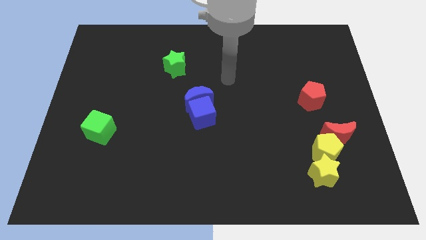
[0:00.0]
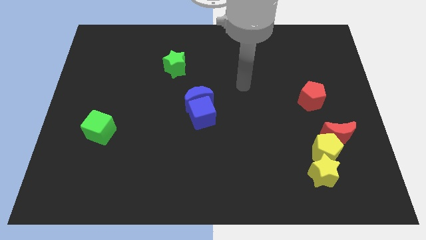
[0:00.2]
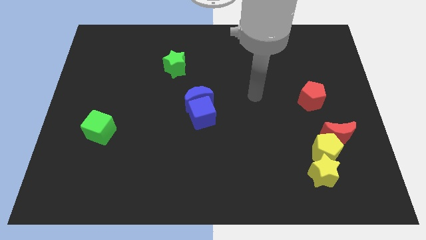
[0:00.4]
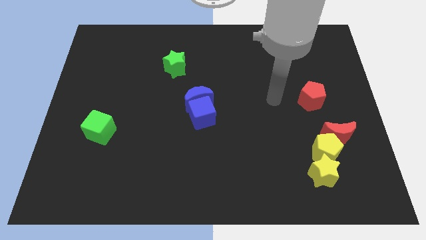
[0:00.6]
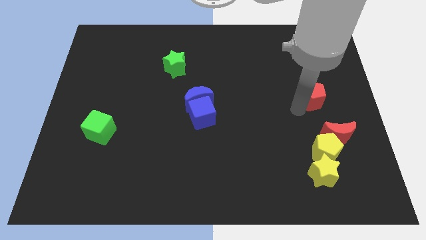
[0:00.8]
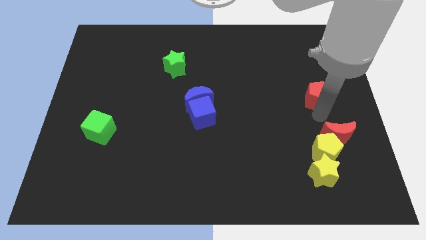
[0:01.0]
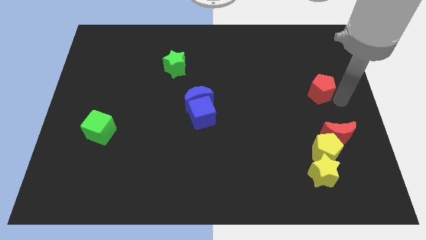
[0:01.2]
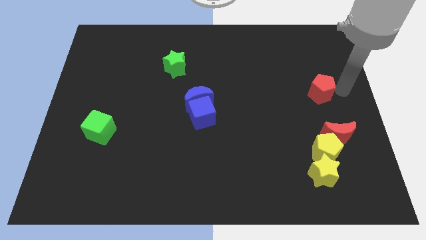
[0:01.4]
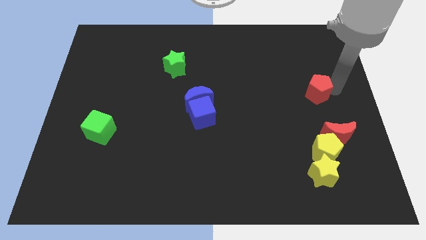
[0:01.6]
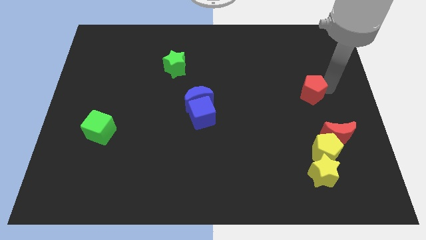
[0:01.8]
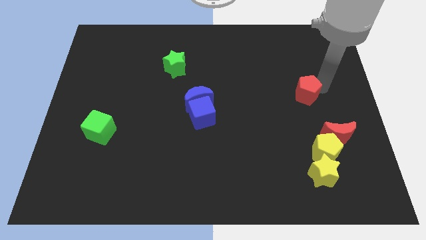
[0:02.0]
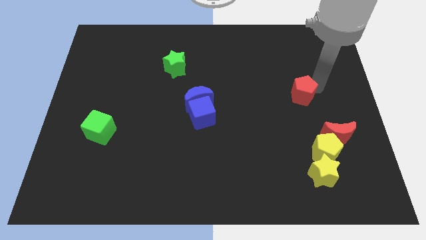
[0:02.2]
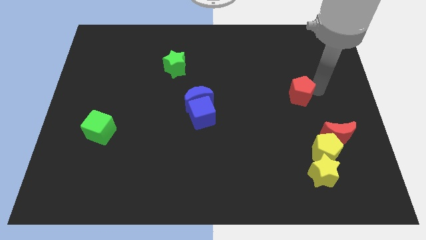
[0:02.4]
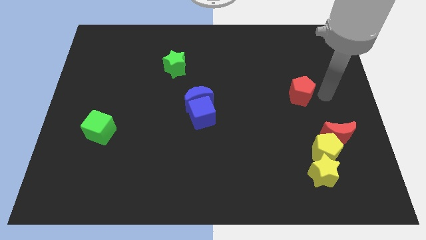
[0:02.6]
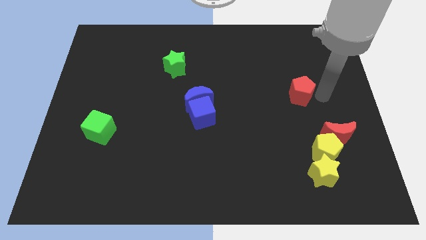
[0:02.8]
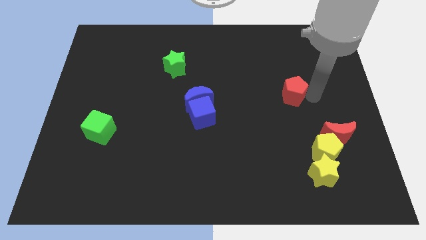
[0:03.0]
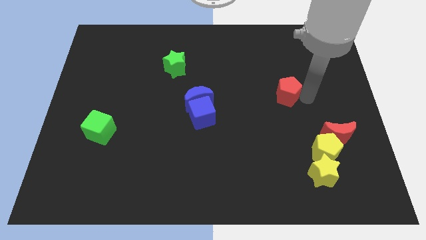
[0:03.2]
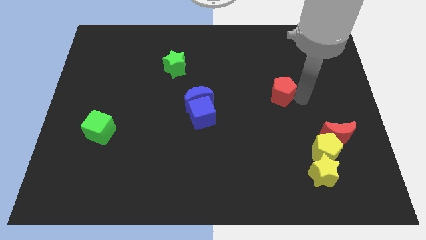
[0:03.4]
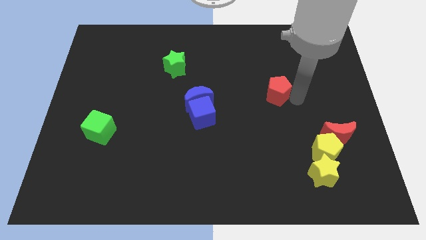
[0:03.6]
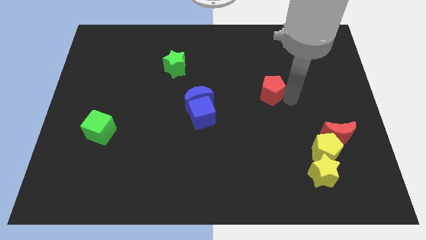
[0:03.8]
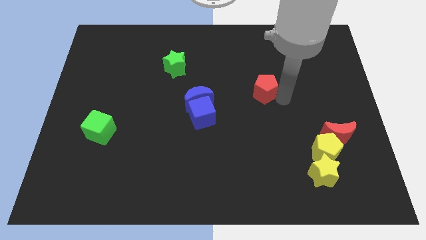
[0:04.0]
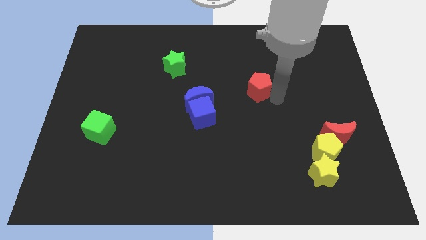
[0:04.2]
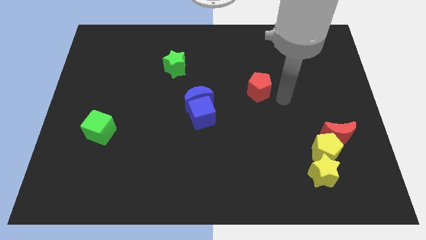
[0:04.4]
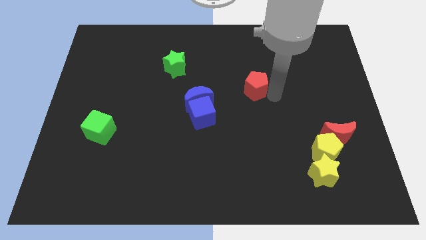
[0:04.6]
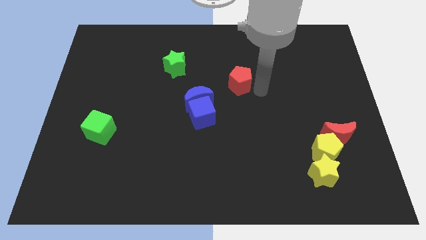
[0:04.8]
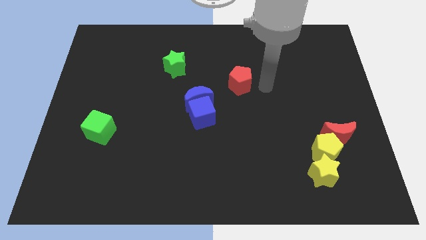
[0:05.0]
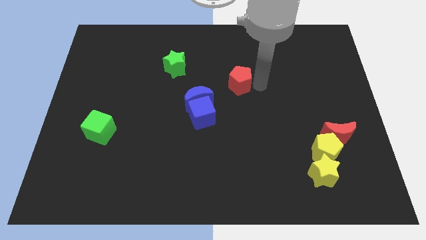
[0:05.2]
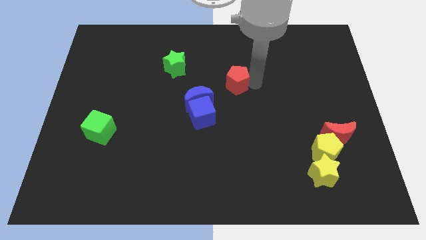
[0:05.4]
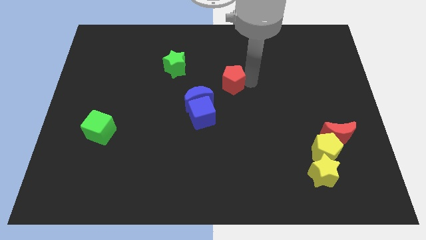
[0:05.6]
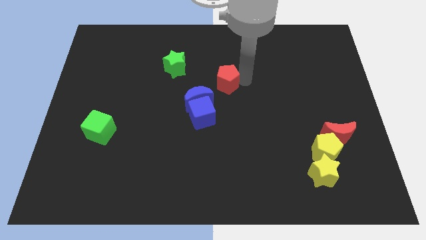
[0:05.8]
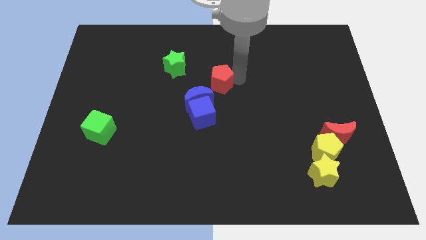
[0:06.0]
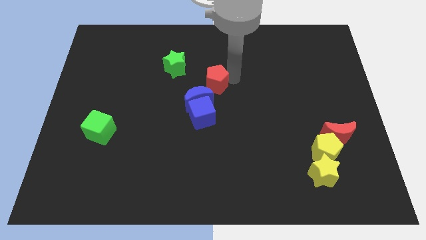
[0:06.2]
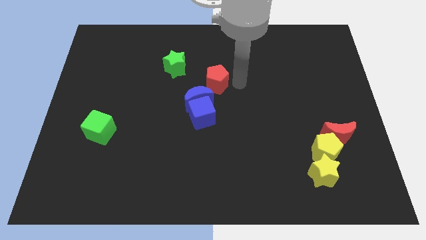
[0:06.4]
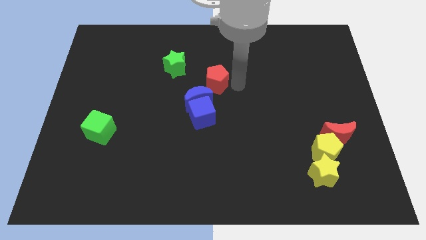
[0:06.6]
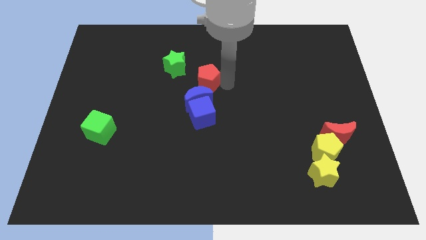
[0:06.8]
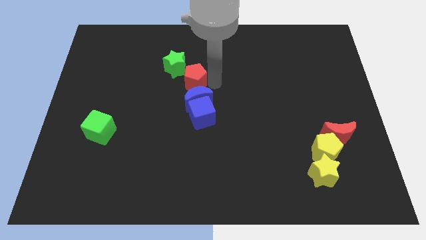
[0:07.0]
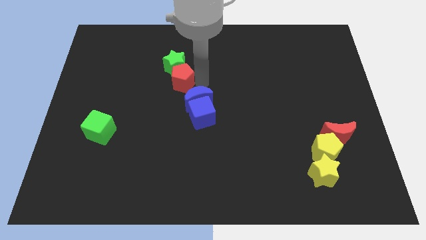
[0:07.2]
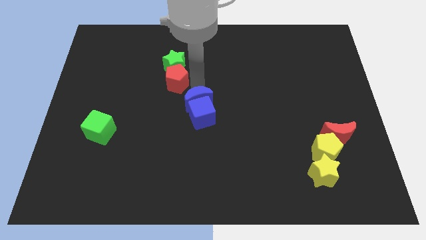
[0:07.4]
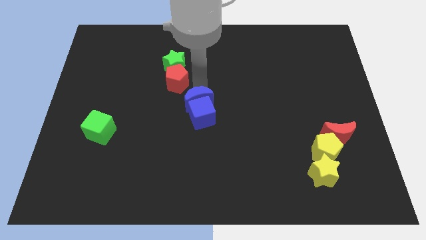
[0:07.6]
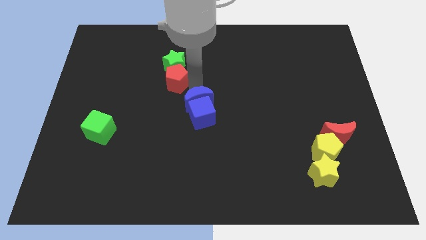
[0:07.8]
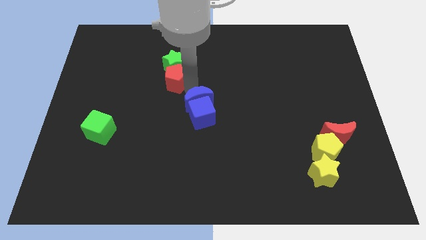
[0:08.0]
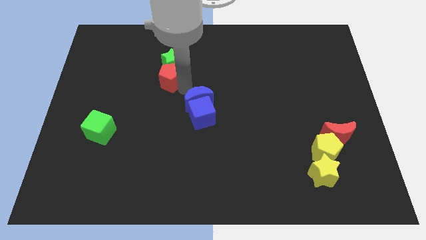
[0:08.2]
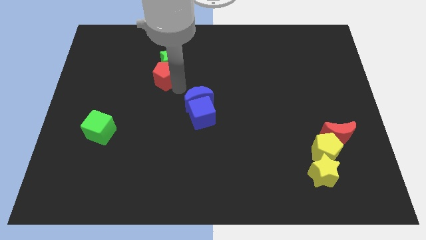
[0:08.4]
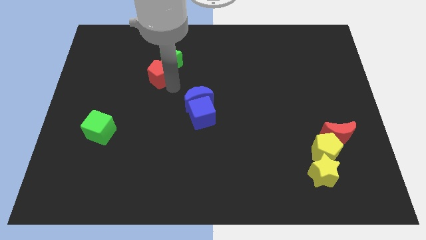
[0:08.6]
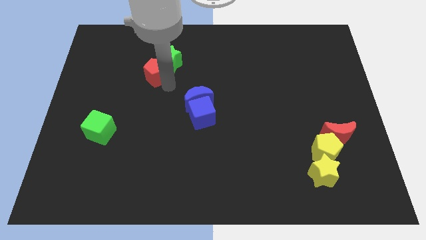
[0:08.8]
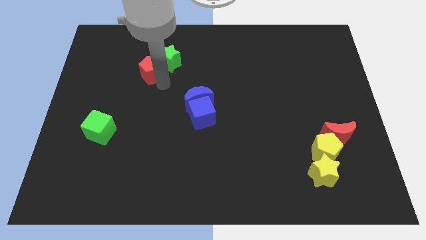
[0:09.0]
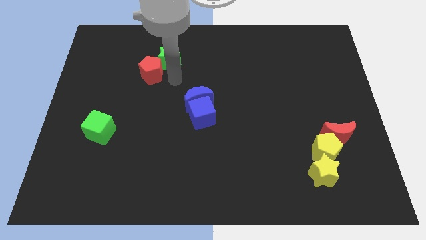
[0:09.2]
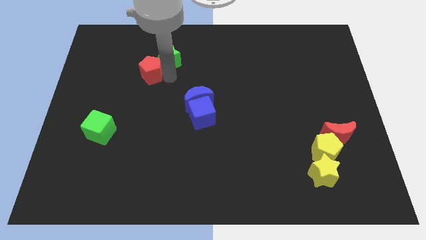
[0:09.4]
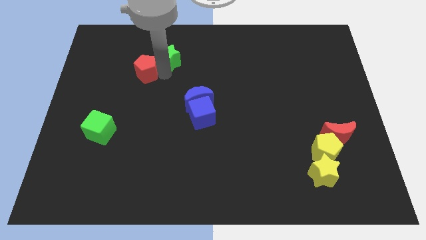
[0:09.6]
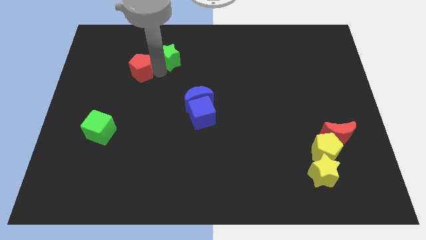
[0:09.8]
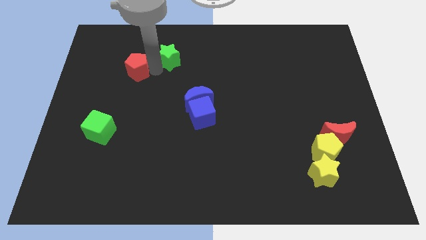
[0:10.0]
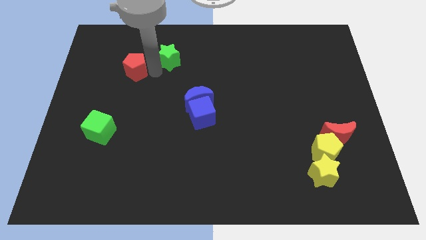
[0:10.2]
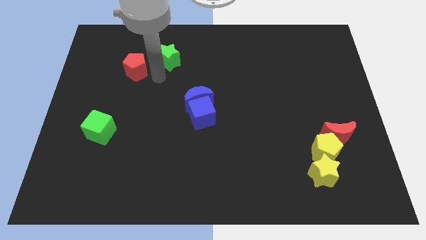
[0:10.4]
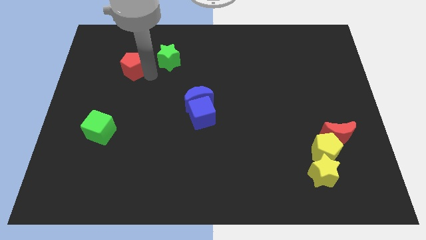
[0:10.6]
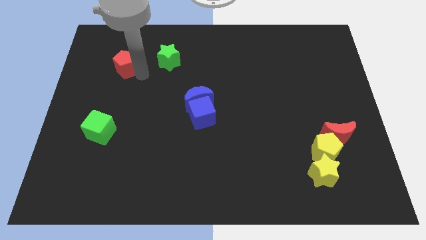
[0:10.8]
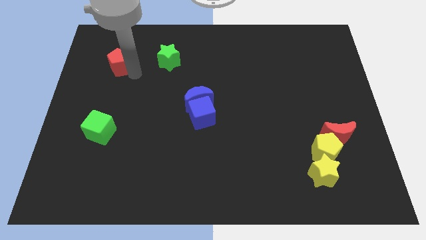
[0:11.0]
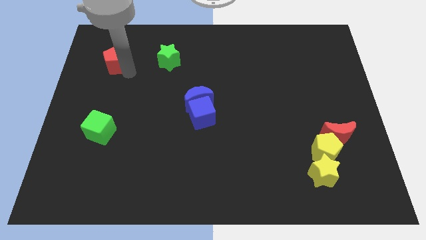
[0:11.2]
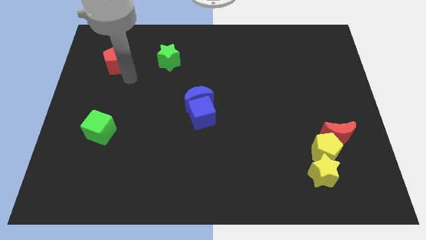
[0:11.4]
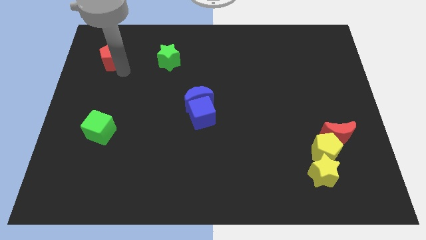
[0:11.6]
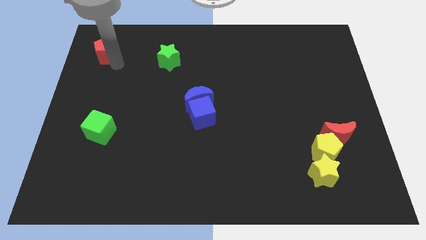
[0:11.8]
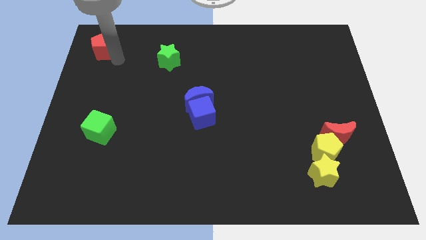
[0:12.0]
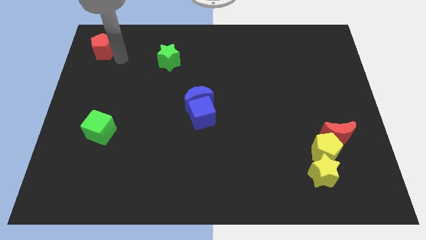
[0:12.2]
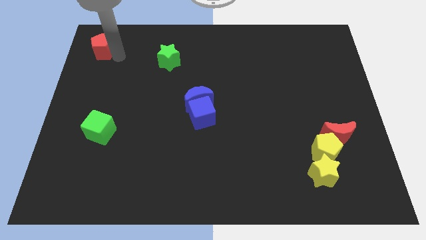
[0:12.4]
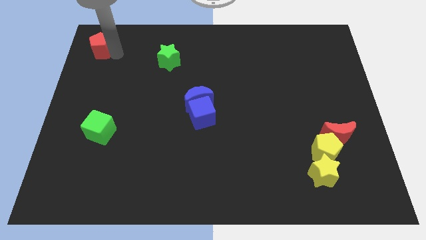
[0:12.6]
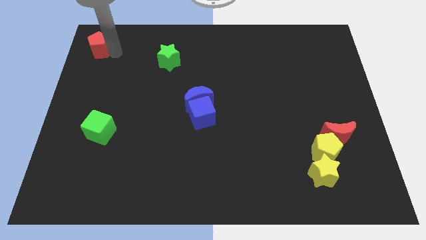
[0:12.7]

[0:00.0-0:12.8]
push the red pentagon to the upper left corner

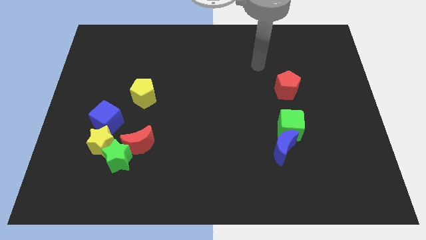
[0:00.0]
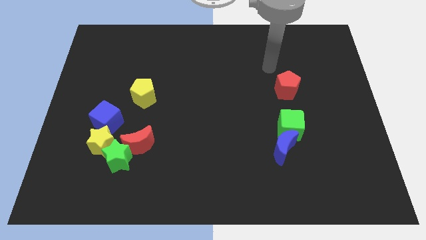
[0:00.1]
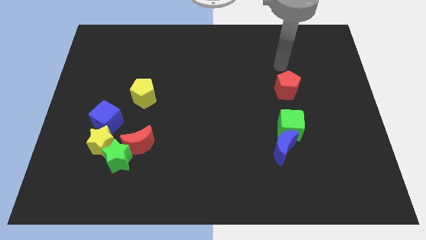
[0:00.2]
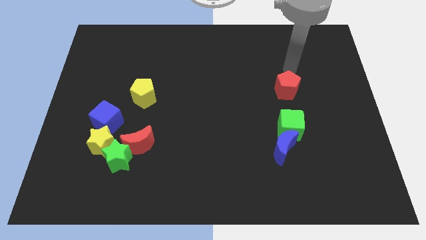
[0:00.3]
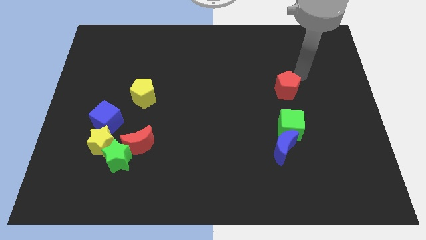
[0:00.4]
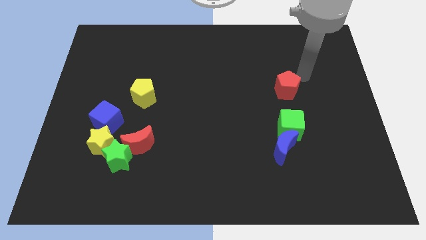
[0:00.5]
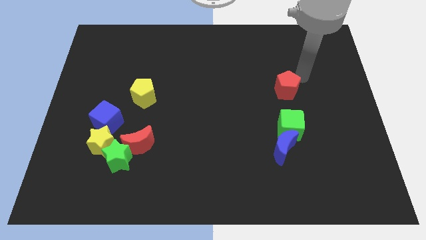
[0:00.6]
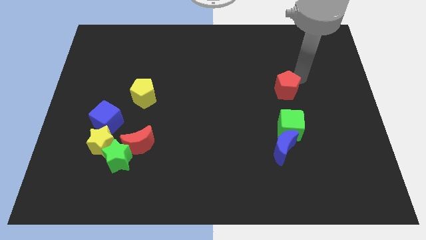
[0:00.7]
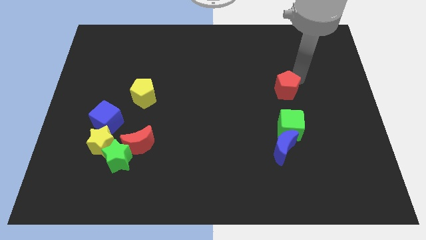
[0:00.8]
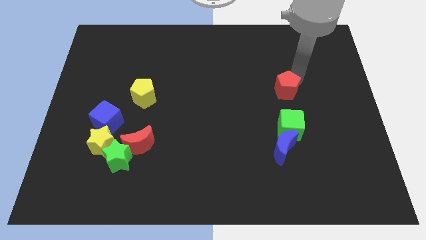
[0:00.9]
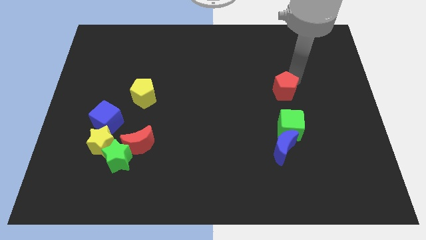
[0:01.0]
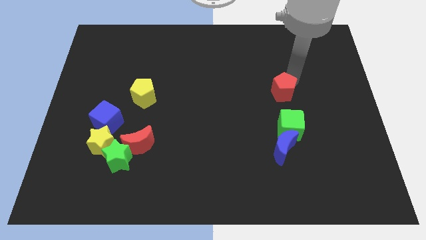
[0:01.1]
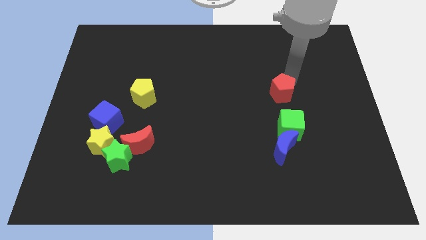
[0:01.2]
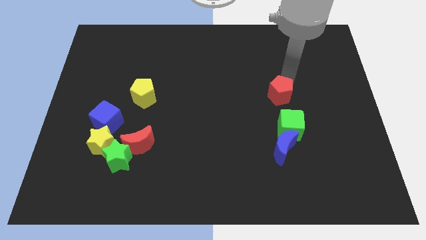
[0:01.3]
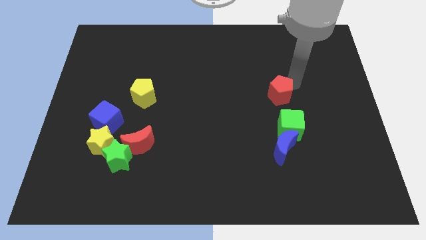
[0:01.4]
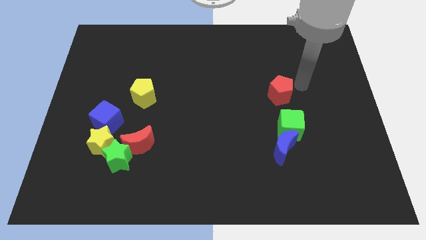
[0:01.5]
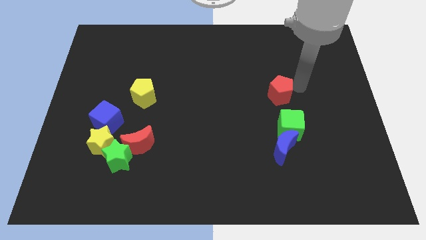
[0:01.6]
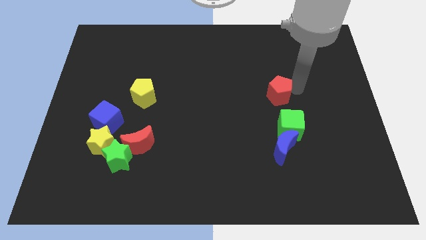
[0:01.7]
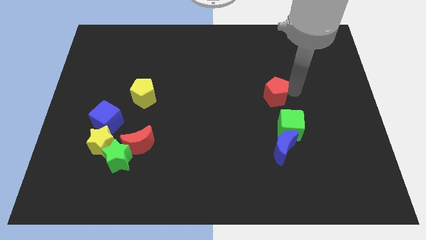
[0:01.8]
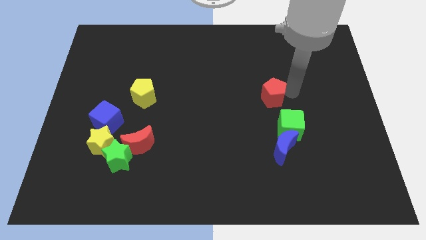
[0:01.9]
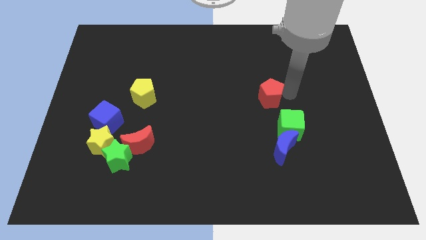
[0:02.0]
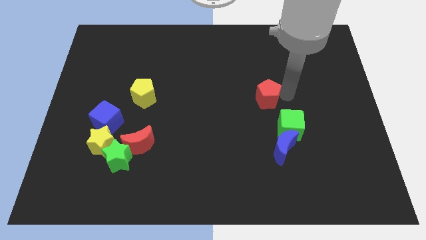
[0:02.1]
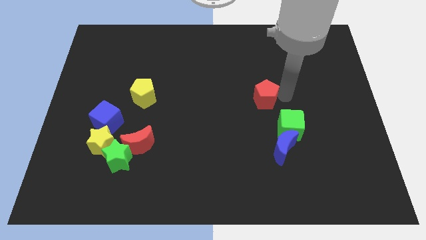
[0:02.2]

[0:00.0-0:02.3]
put the red pentagon to the middle
